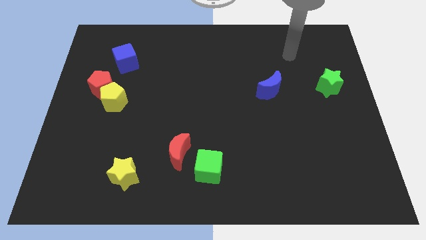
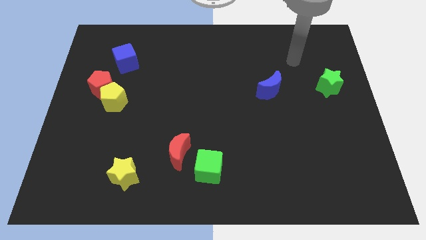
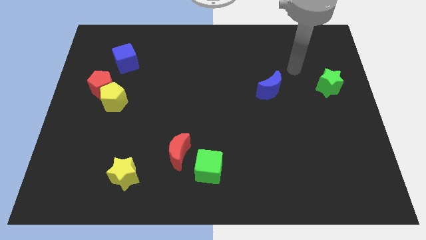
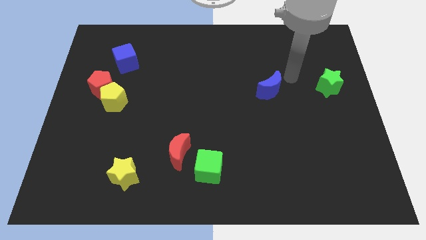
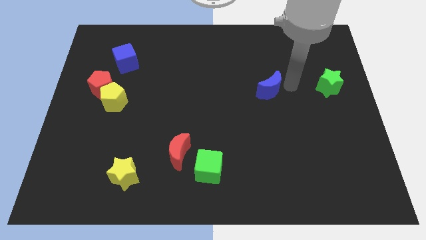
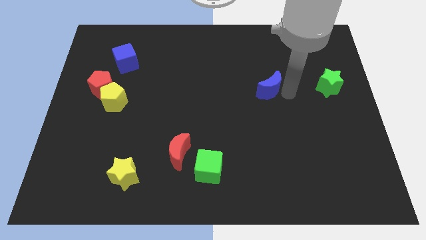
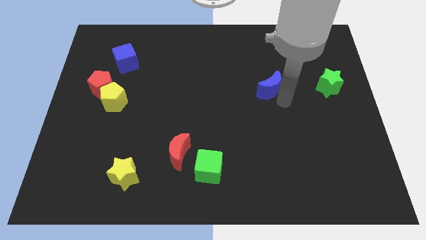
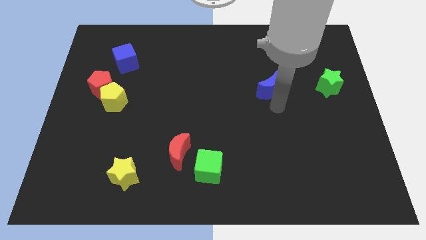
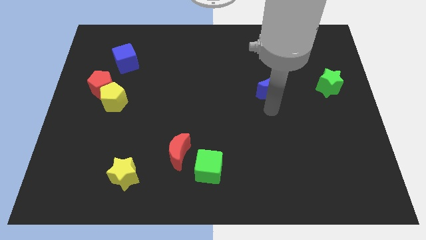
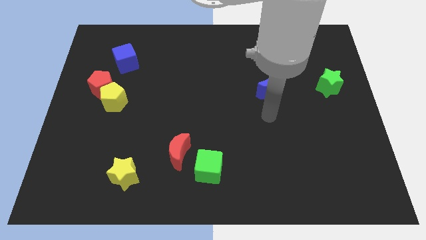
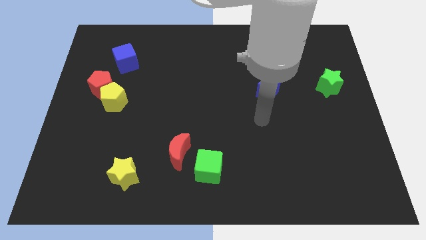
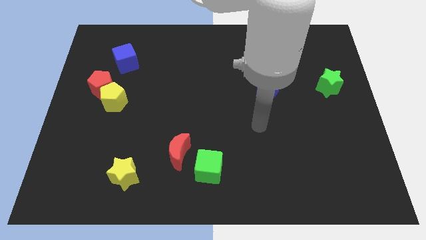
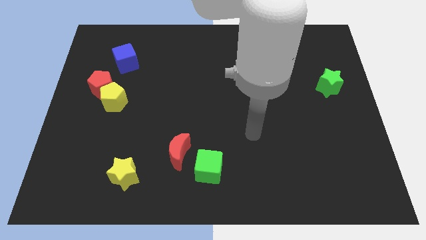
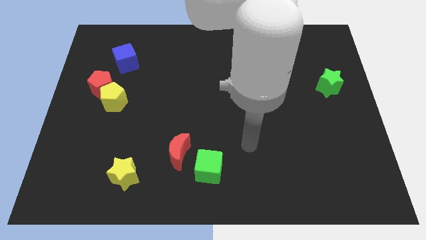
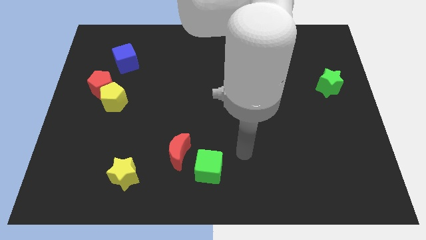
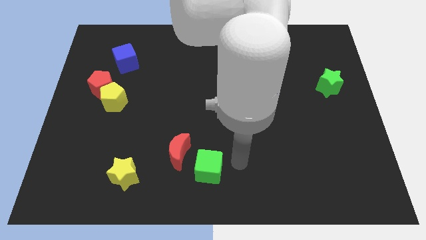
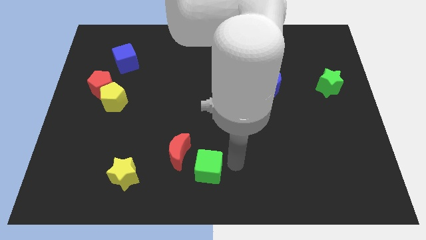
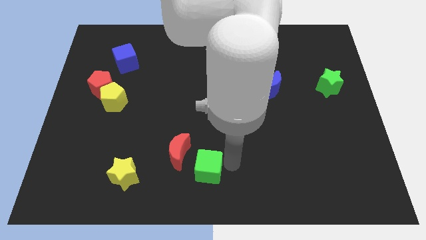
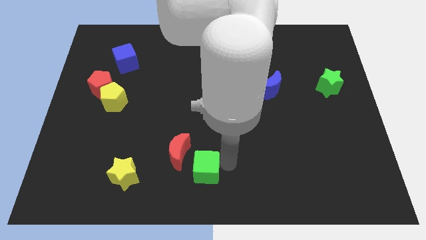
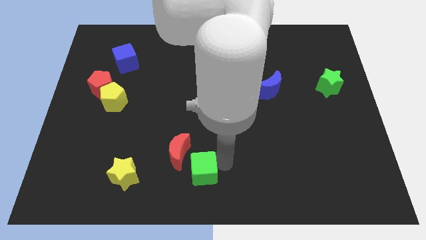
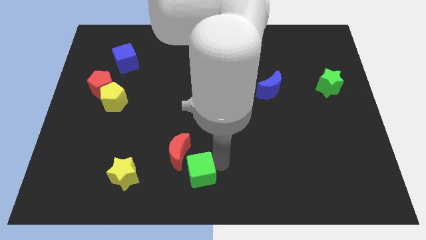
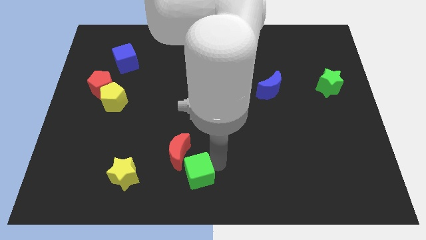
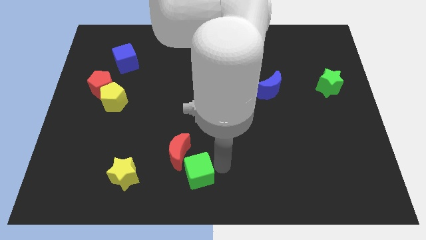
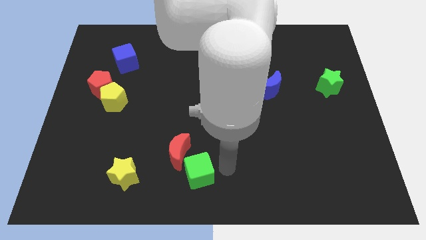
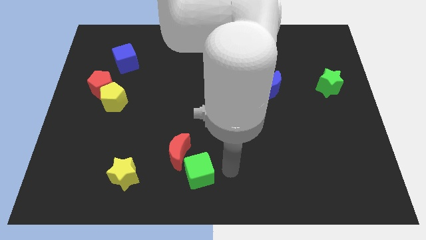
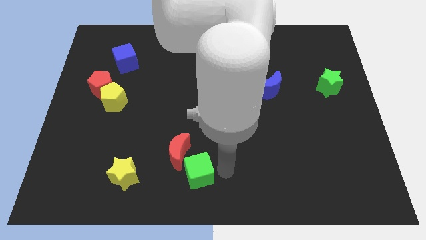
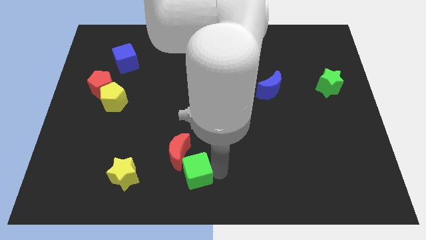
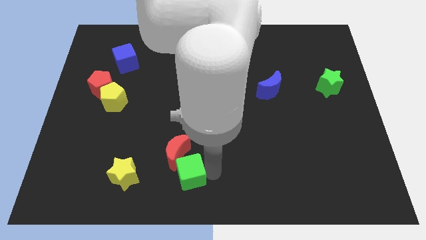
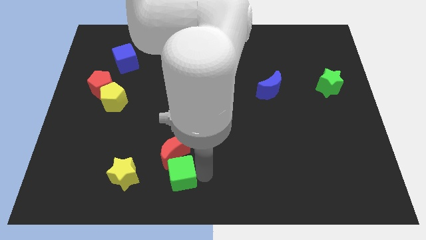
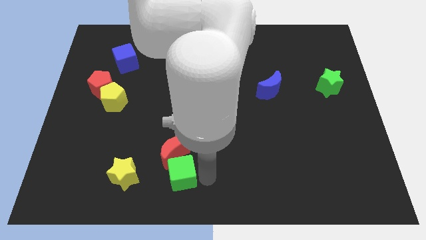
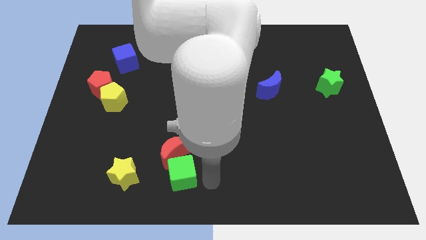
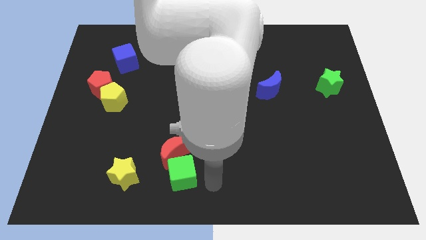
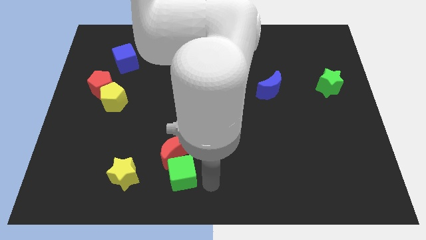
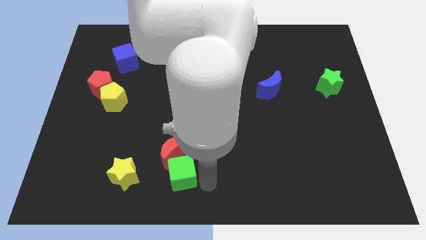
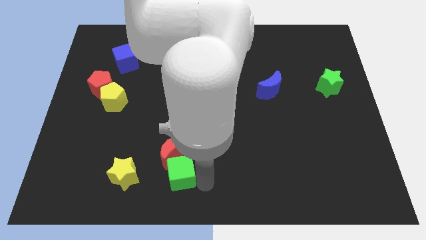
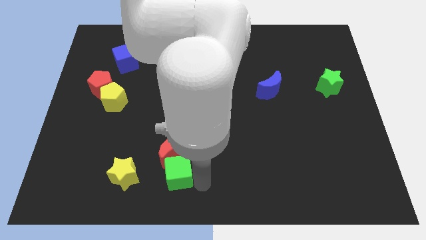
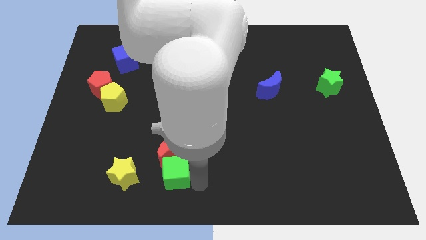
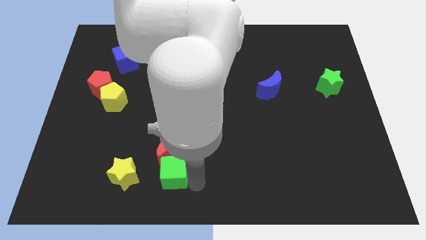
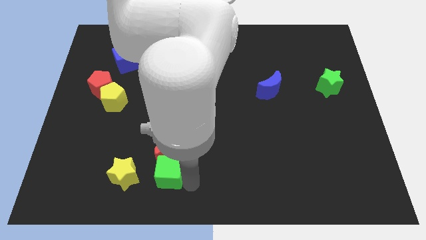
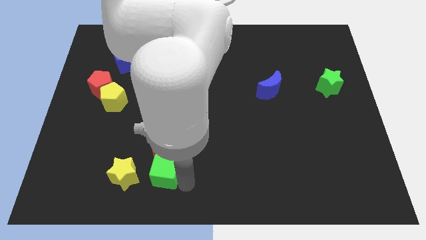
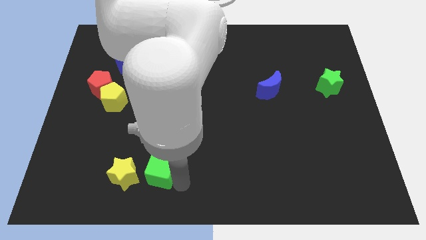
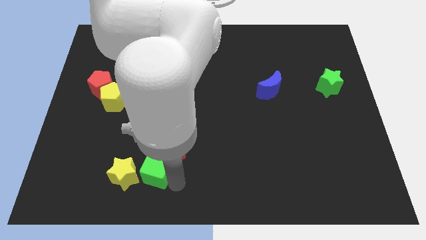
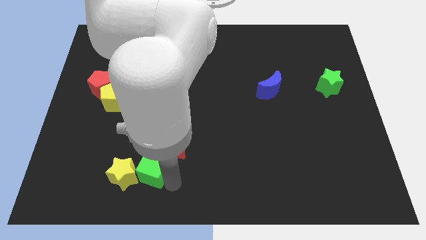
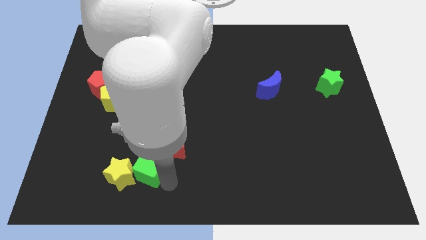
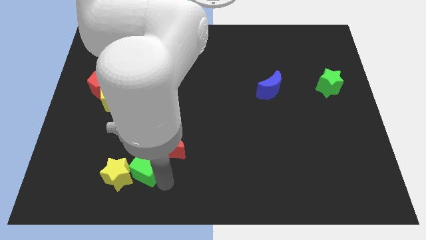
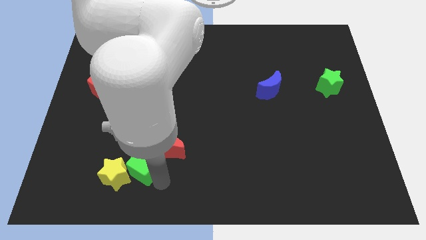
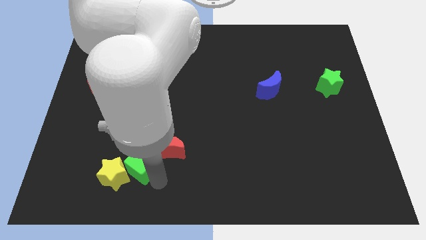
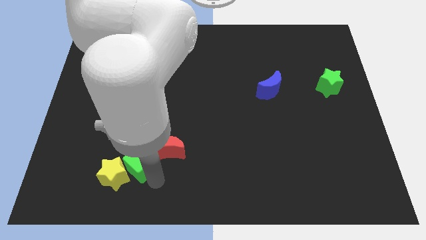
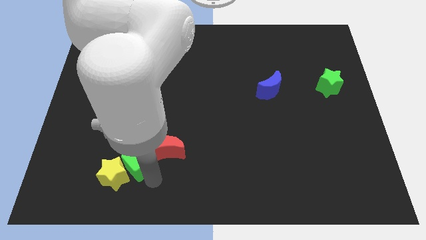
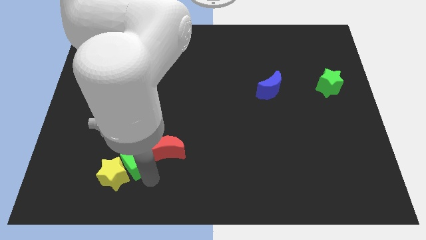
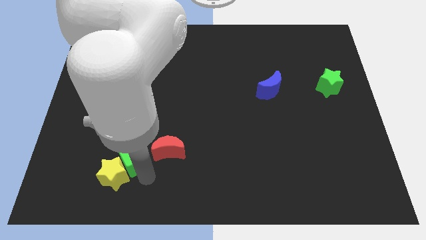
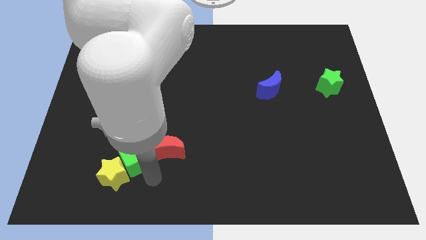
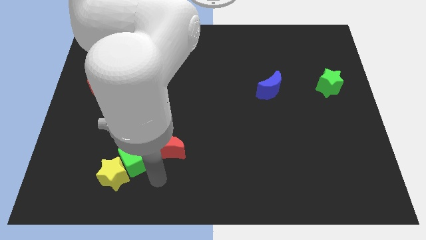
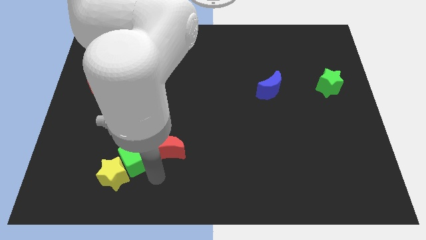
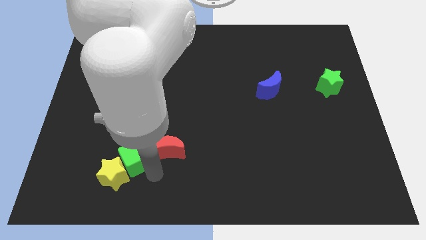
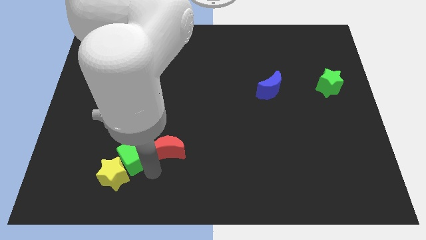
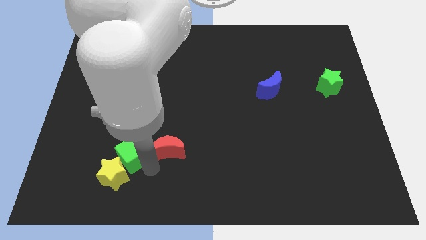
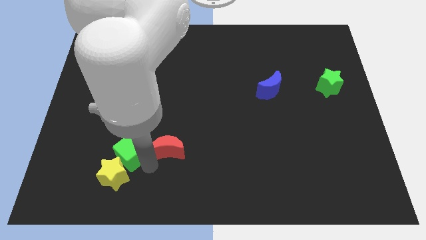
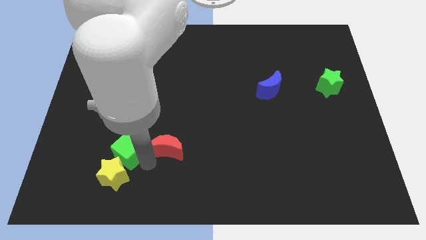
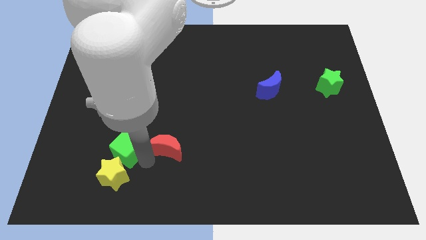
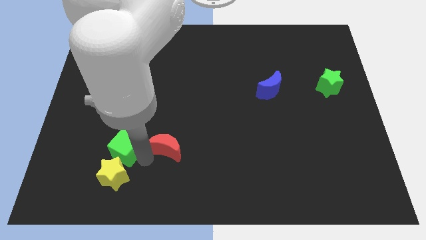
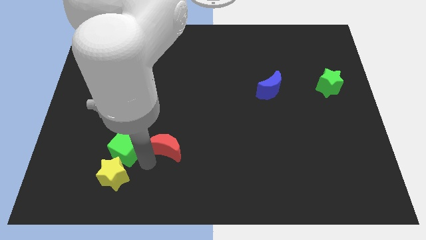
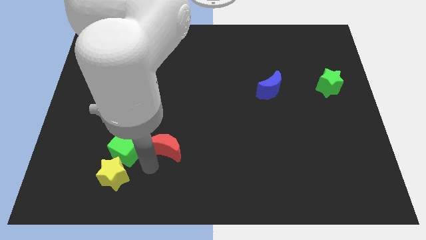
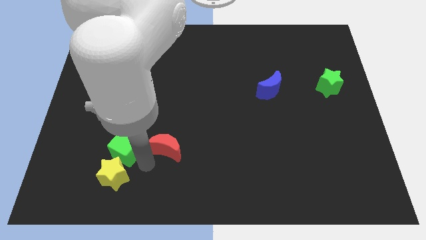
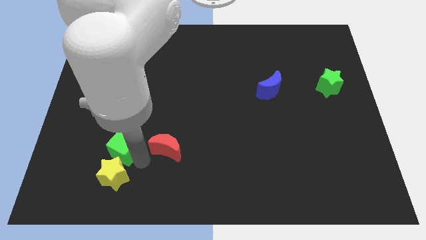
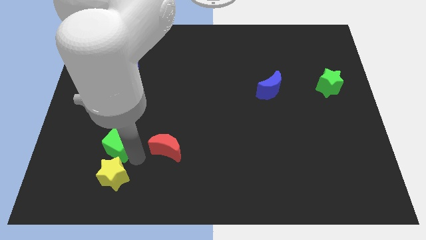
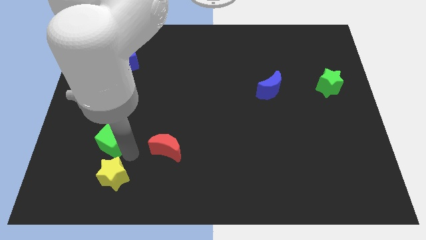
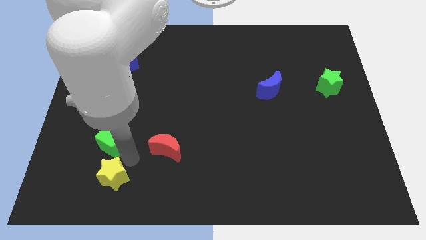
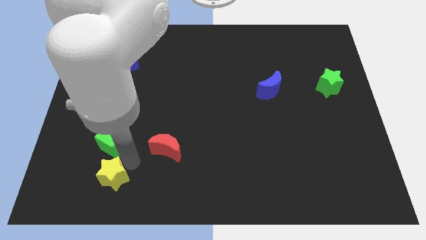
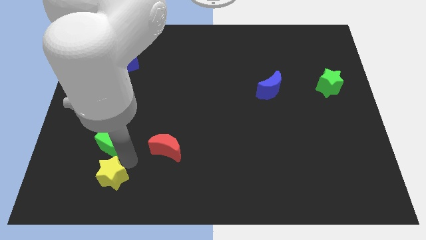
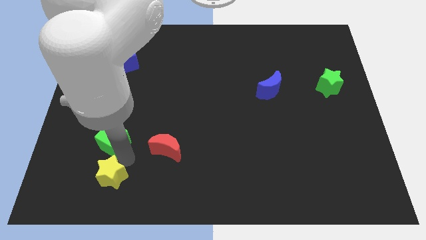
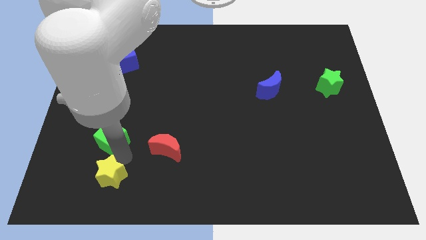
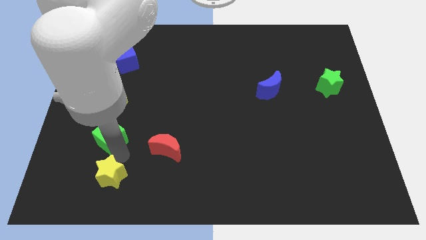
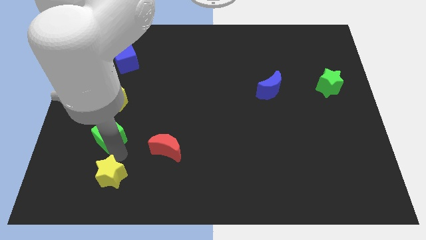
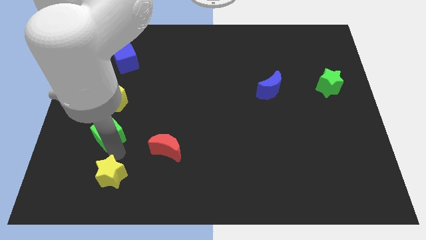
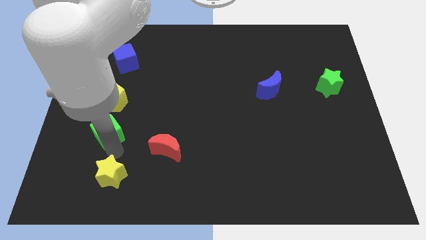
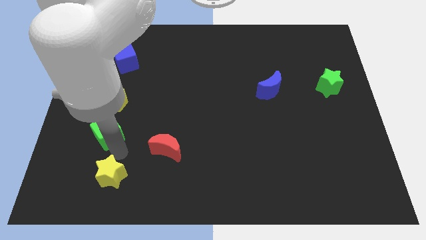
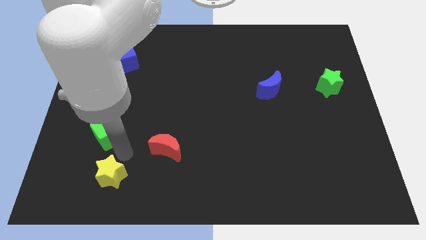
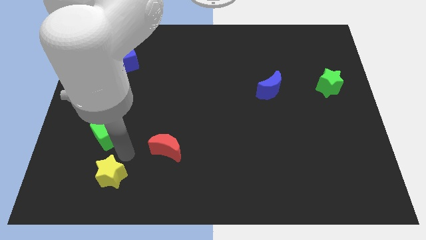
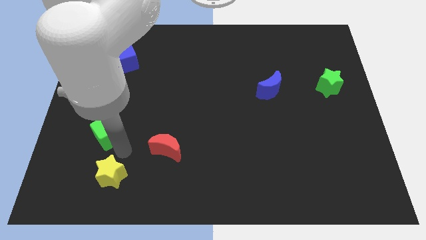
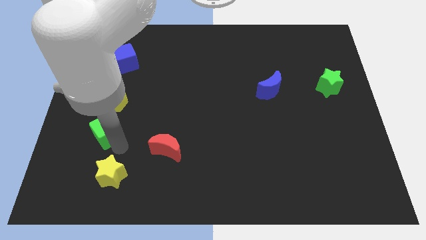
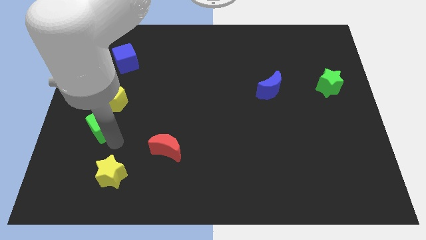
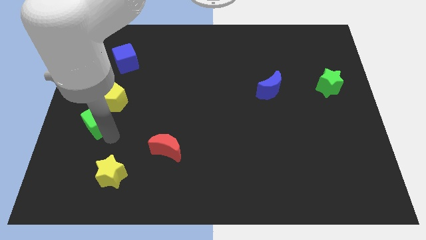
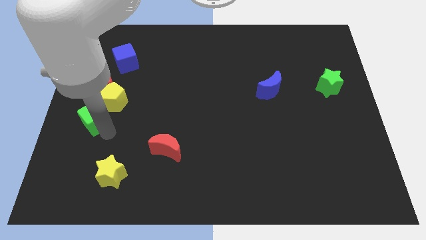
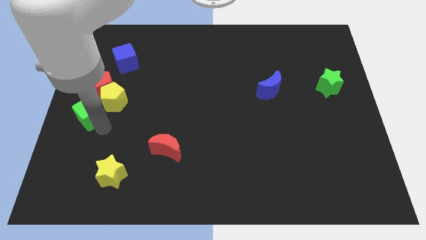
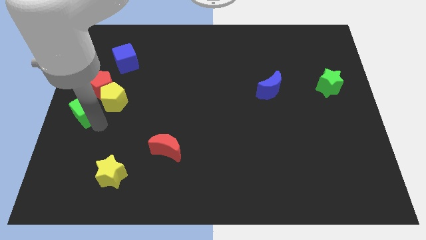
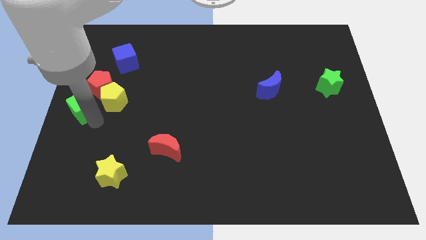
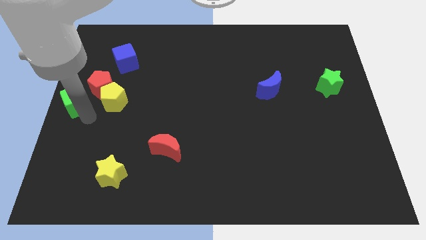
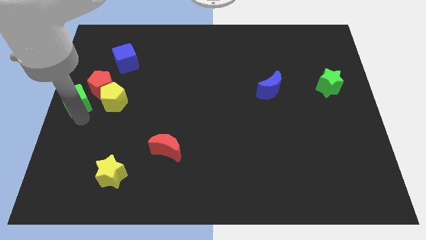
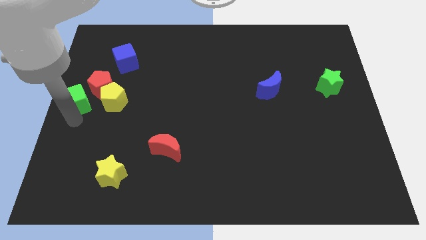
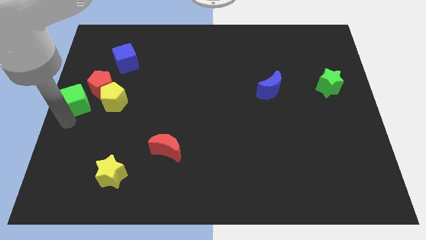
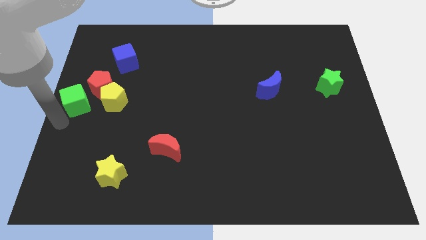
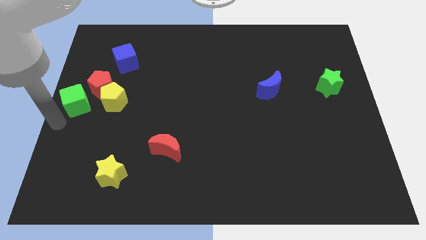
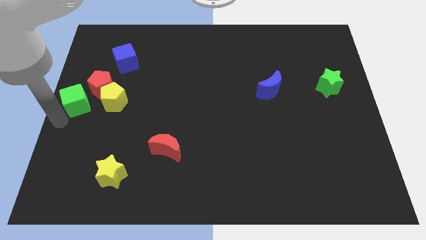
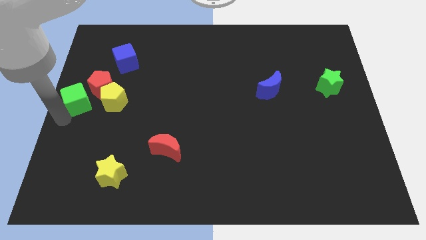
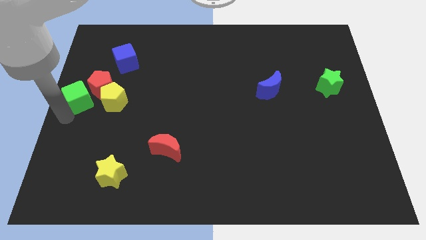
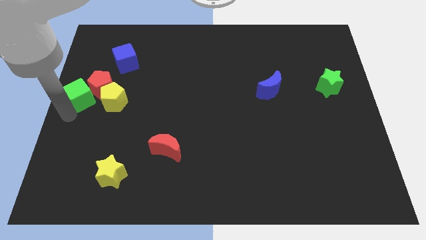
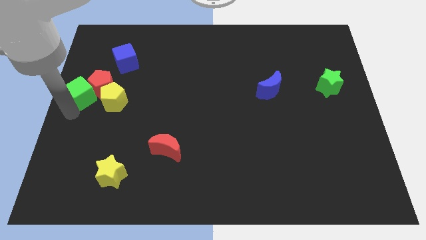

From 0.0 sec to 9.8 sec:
put the green cube to the top left side of the yellow pentagon
